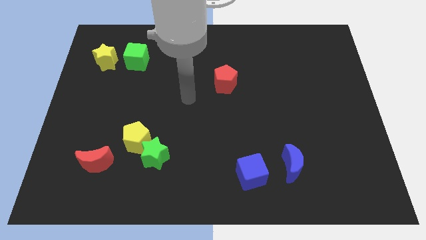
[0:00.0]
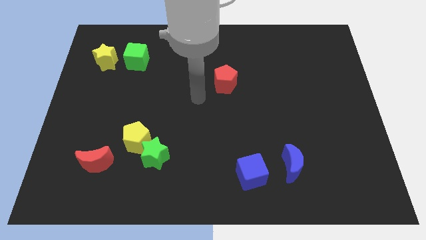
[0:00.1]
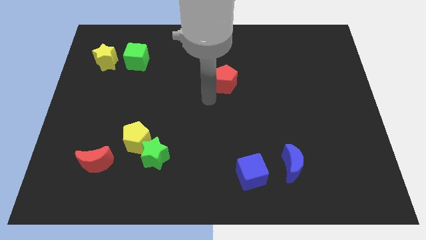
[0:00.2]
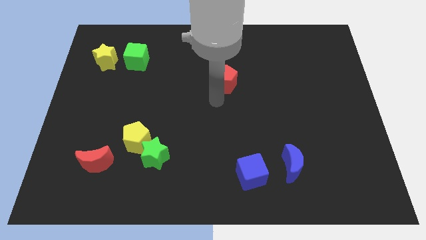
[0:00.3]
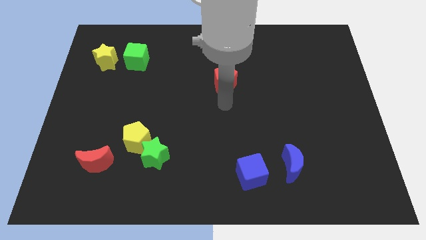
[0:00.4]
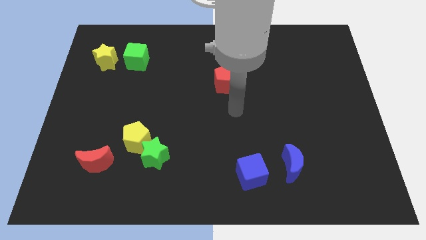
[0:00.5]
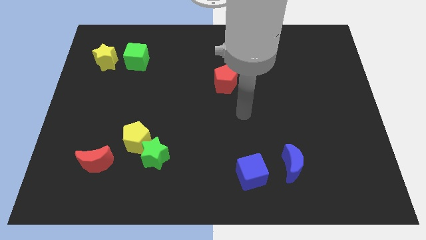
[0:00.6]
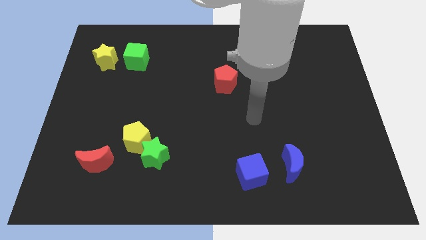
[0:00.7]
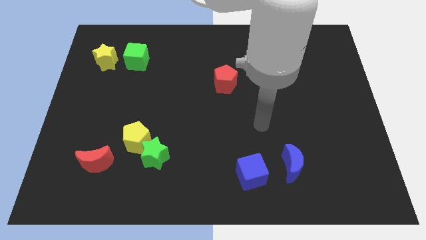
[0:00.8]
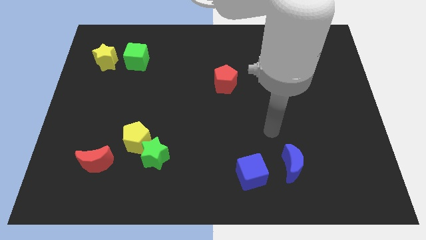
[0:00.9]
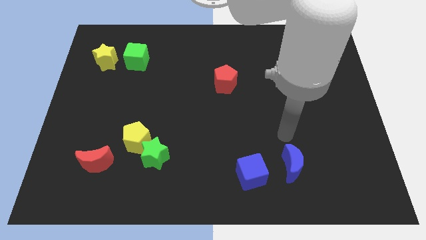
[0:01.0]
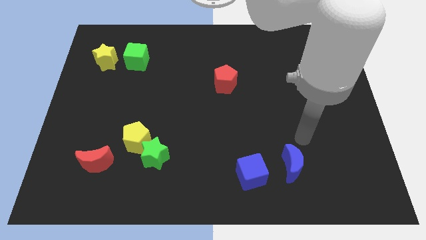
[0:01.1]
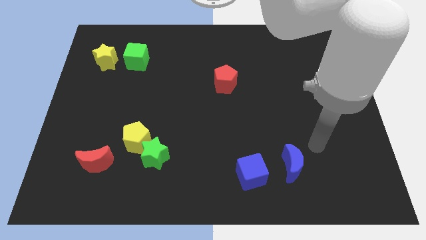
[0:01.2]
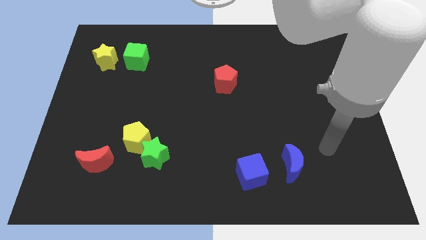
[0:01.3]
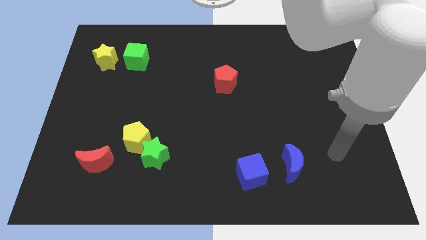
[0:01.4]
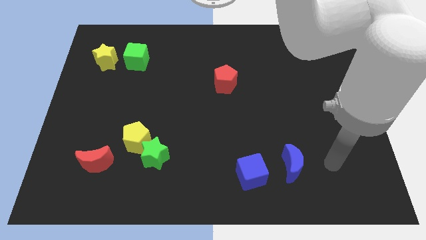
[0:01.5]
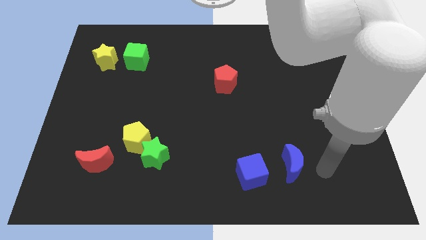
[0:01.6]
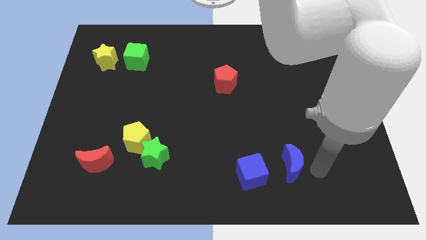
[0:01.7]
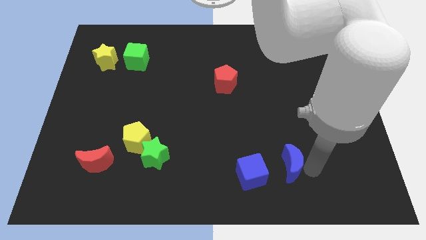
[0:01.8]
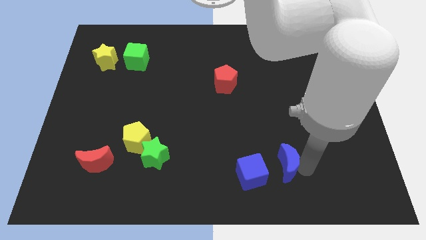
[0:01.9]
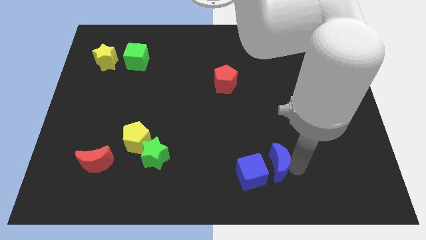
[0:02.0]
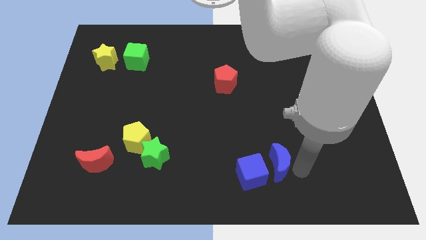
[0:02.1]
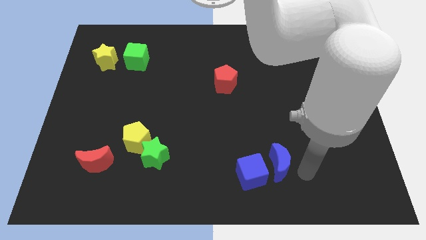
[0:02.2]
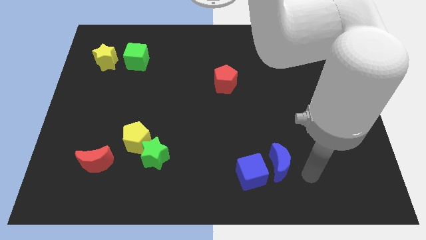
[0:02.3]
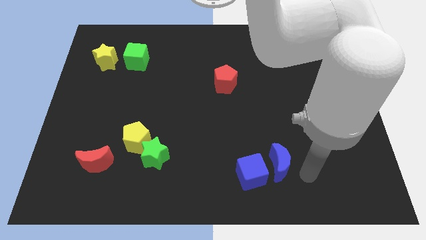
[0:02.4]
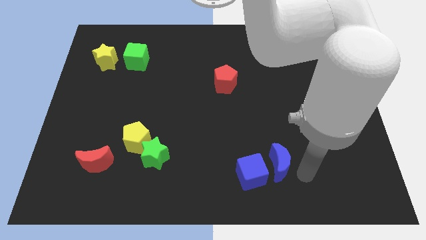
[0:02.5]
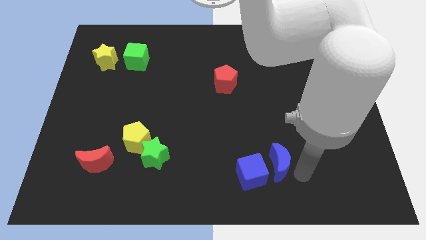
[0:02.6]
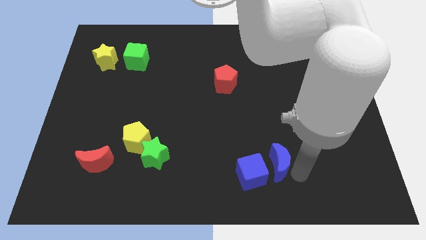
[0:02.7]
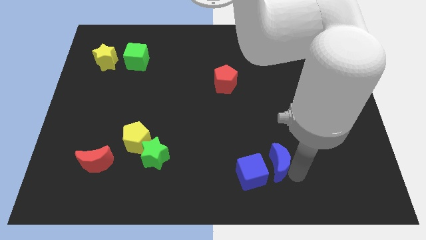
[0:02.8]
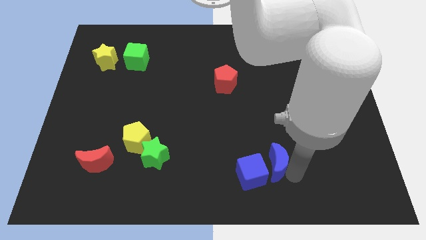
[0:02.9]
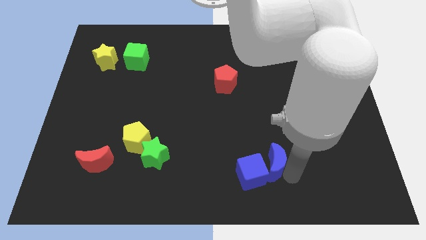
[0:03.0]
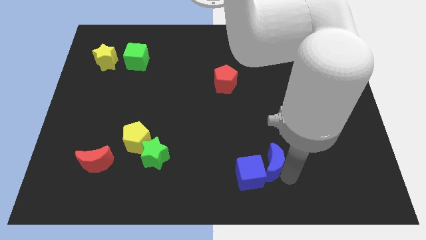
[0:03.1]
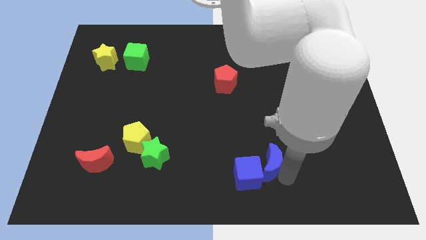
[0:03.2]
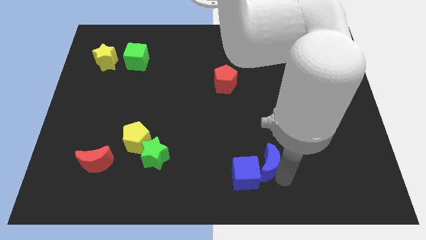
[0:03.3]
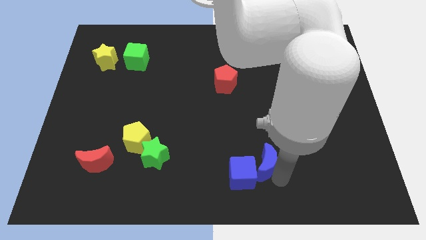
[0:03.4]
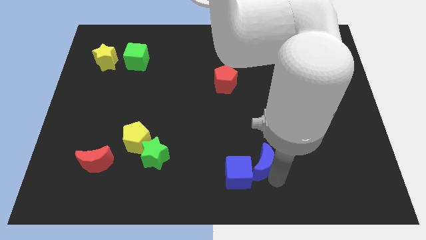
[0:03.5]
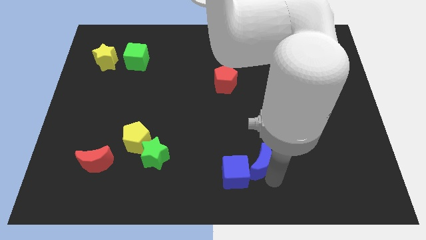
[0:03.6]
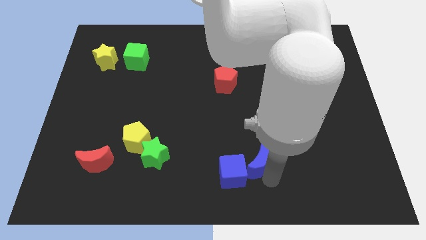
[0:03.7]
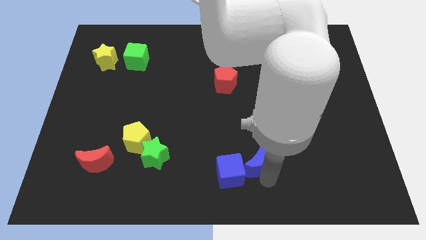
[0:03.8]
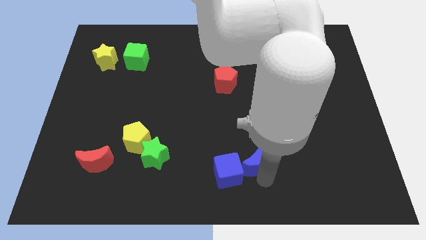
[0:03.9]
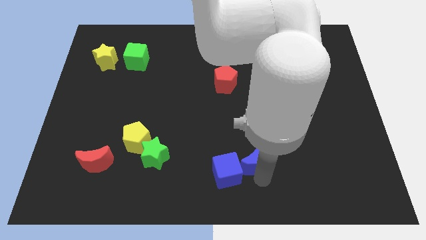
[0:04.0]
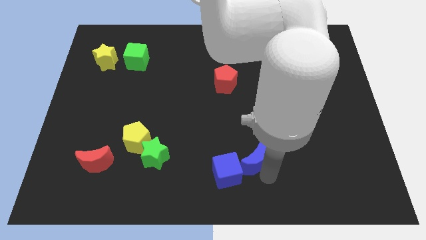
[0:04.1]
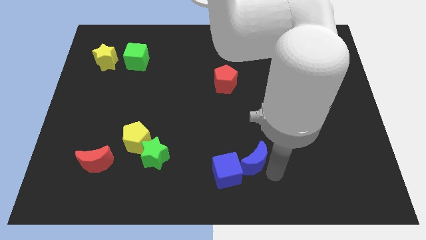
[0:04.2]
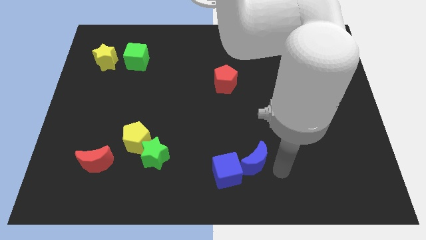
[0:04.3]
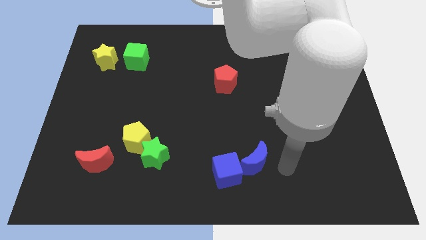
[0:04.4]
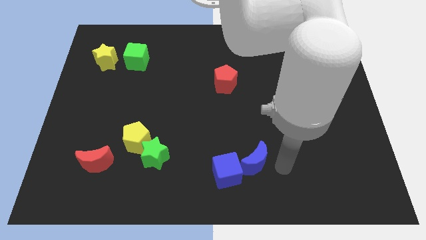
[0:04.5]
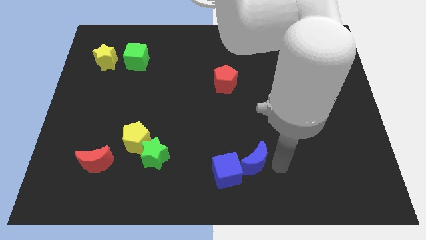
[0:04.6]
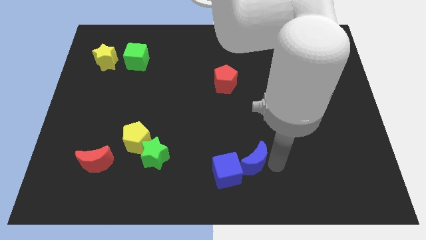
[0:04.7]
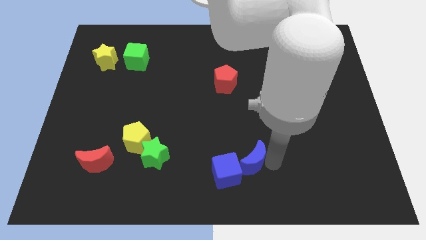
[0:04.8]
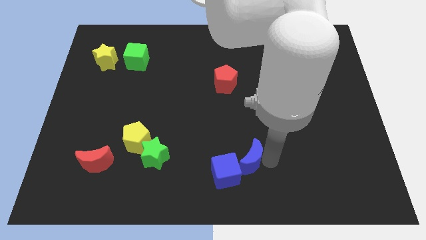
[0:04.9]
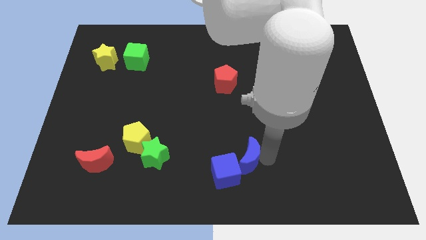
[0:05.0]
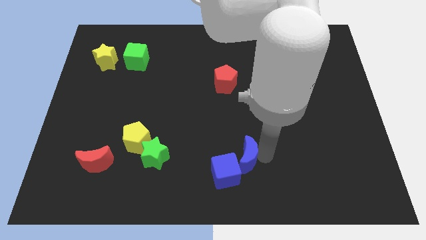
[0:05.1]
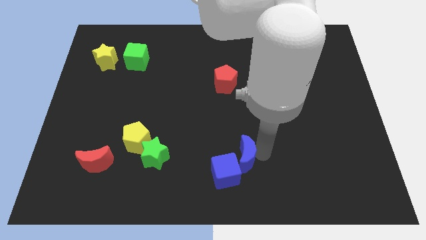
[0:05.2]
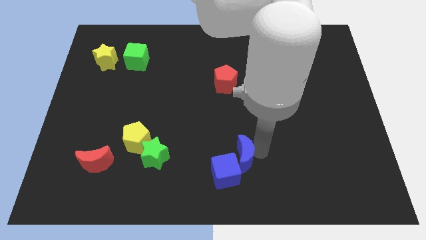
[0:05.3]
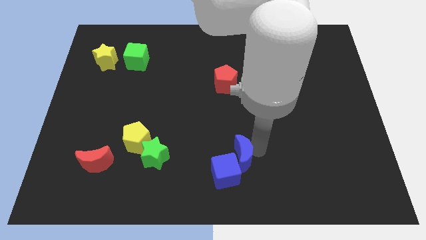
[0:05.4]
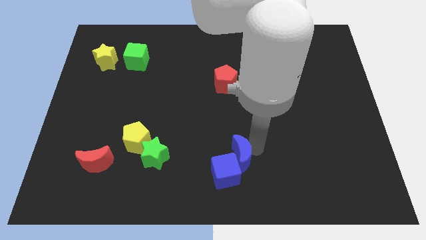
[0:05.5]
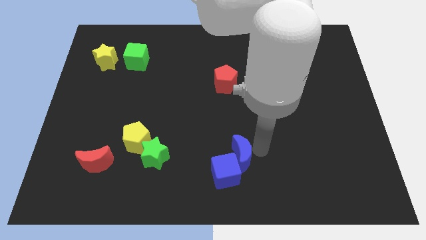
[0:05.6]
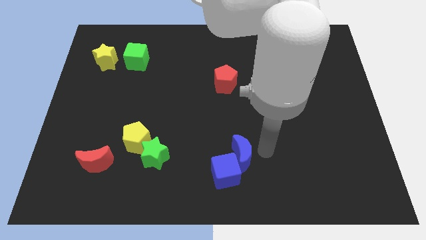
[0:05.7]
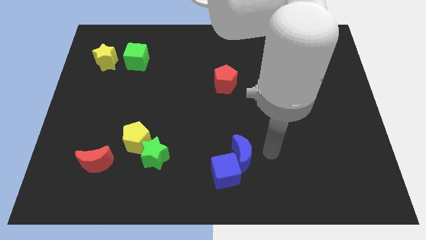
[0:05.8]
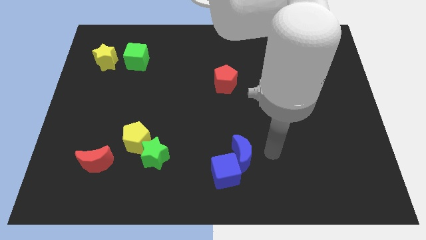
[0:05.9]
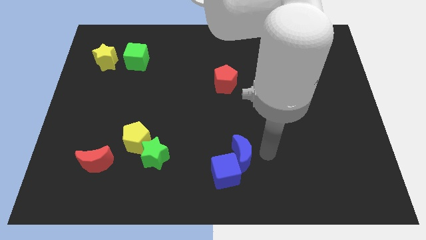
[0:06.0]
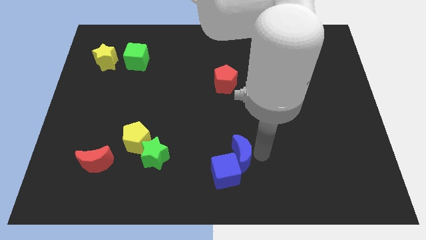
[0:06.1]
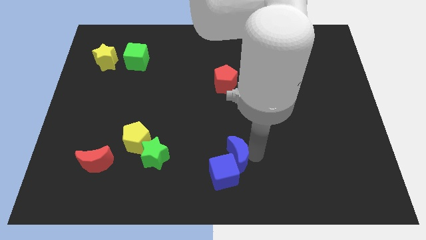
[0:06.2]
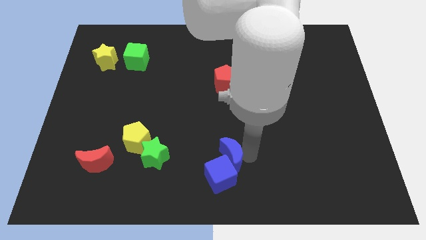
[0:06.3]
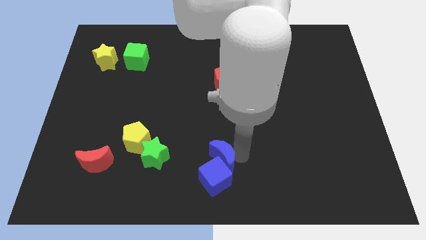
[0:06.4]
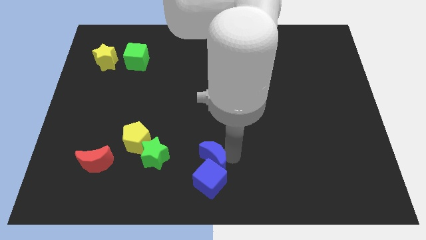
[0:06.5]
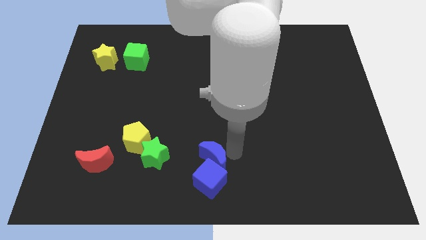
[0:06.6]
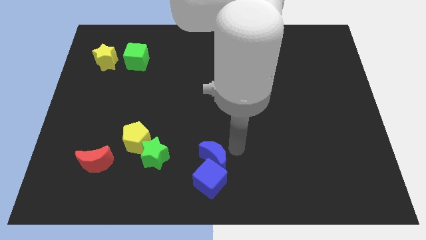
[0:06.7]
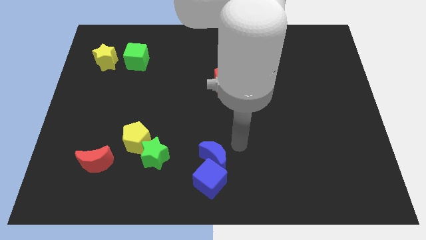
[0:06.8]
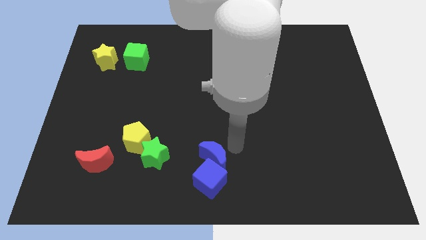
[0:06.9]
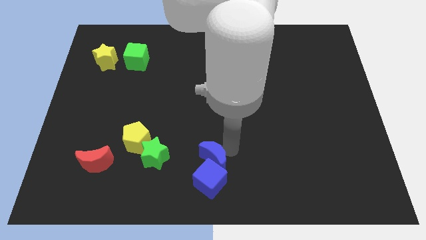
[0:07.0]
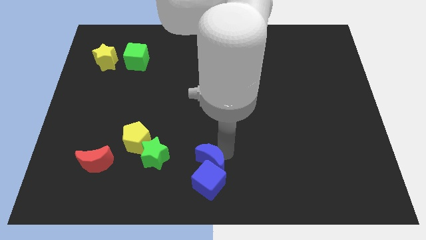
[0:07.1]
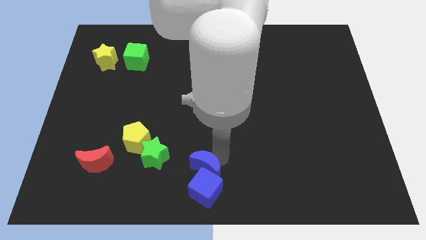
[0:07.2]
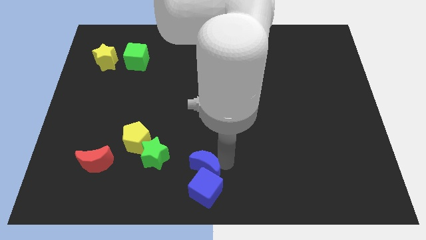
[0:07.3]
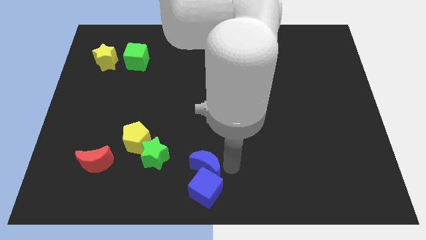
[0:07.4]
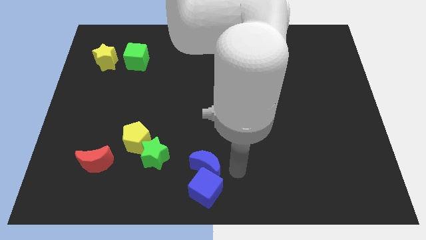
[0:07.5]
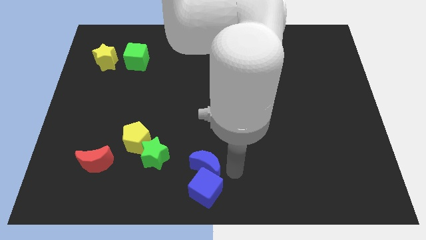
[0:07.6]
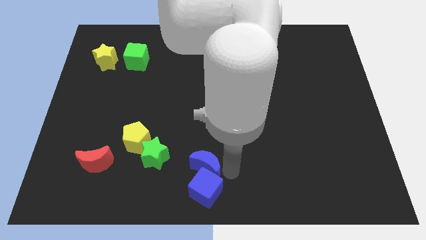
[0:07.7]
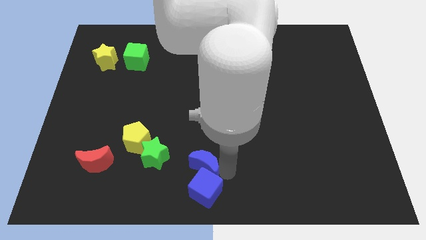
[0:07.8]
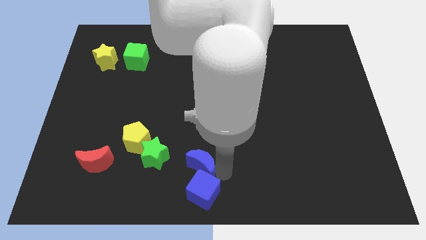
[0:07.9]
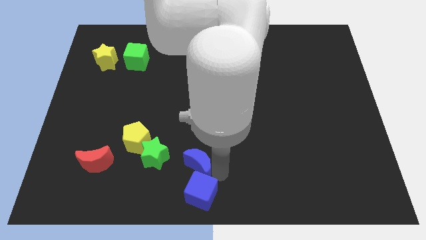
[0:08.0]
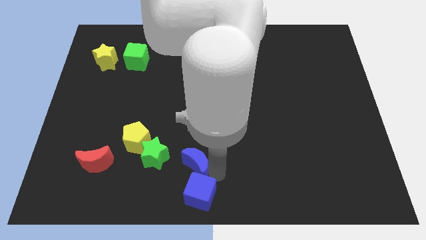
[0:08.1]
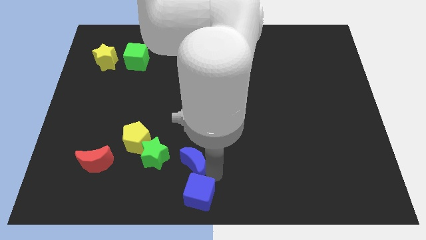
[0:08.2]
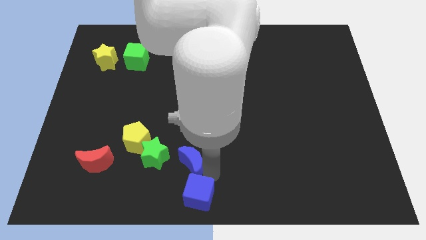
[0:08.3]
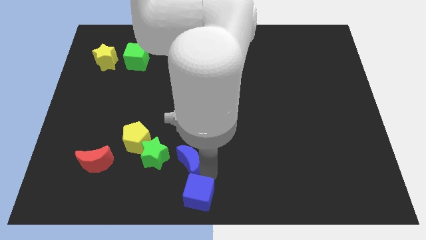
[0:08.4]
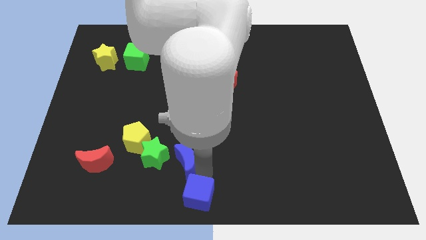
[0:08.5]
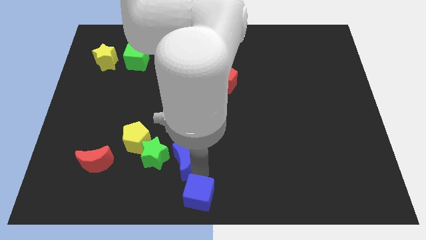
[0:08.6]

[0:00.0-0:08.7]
put the blue moon close to the green star
